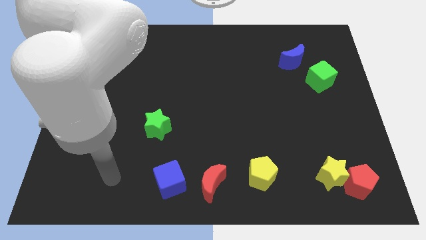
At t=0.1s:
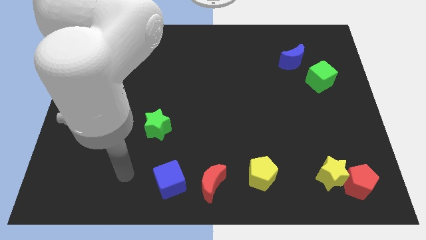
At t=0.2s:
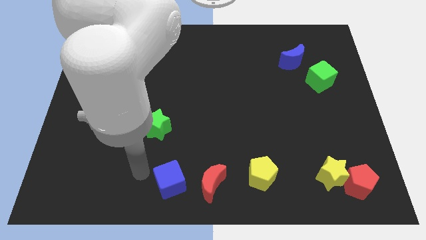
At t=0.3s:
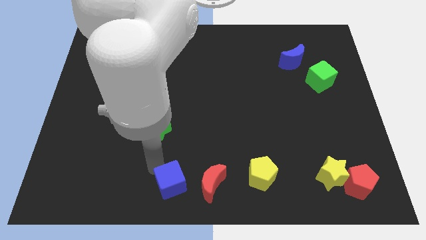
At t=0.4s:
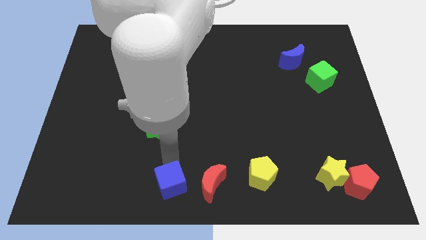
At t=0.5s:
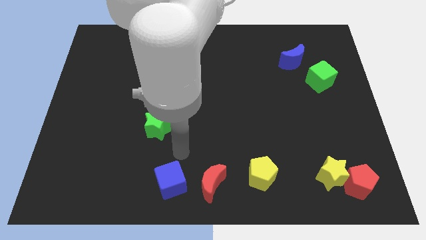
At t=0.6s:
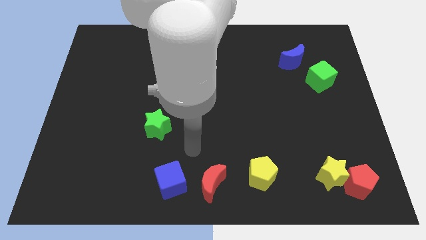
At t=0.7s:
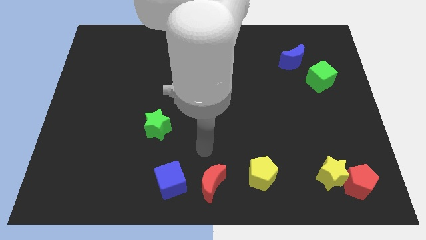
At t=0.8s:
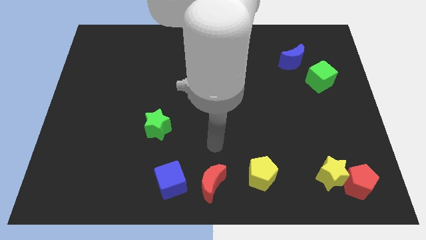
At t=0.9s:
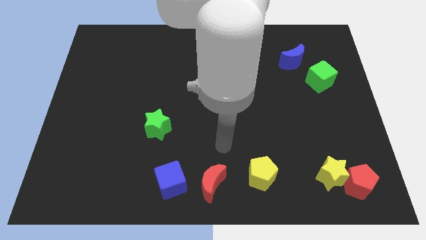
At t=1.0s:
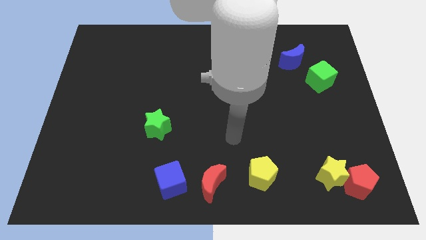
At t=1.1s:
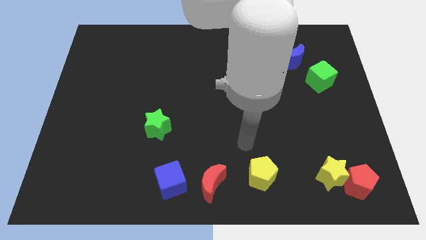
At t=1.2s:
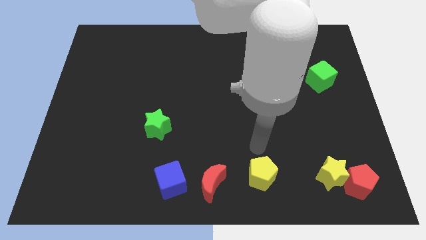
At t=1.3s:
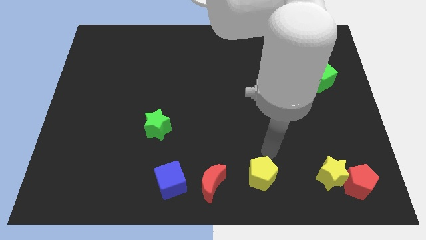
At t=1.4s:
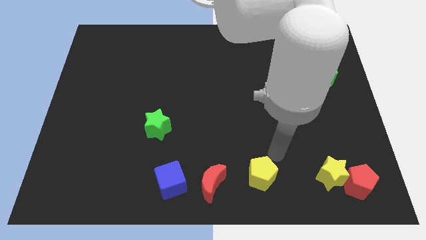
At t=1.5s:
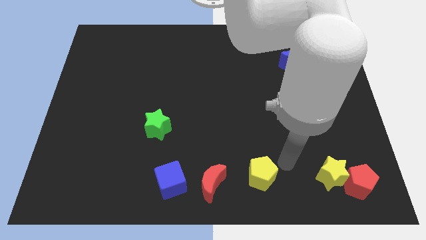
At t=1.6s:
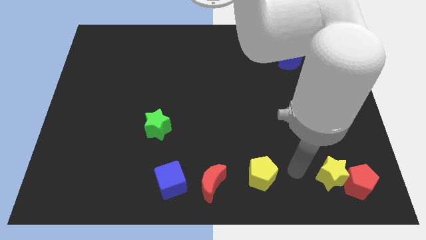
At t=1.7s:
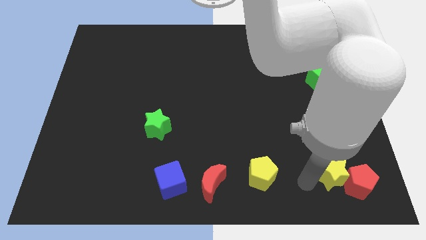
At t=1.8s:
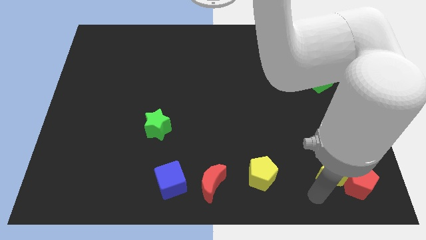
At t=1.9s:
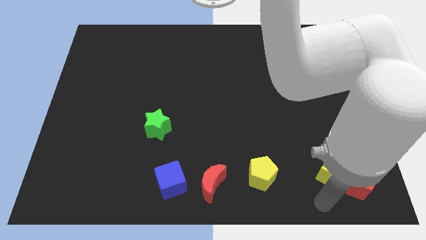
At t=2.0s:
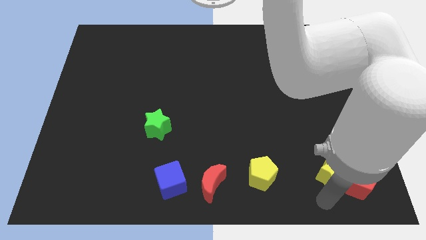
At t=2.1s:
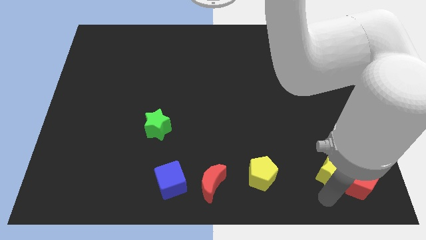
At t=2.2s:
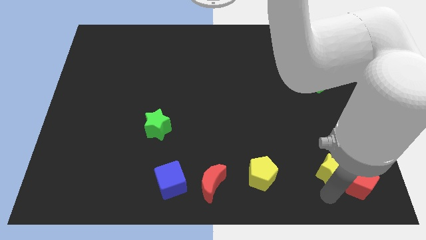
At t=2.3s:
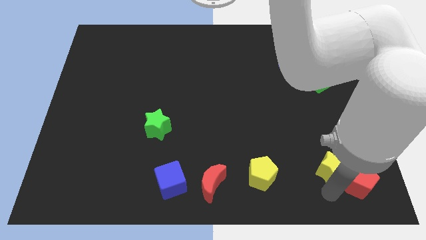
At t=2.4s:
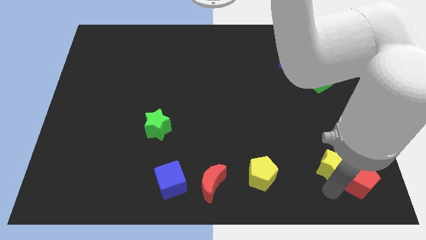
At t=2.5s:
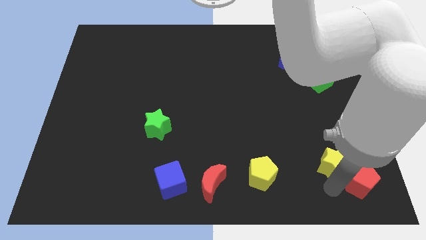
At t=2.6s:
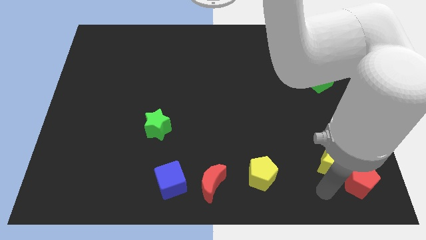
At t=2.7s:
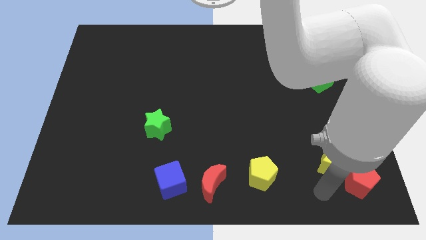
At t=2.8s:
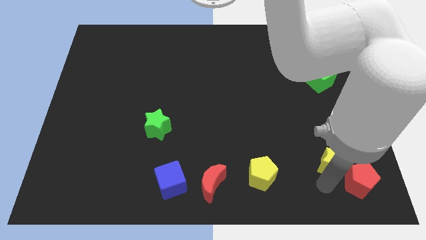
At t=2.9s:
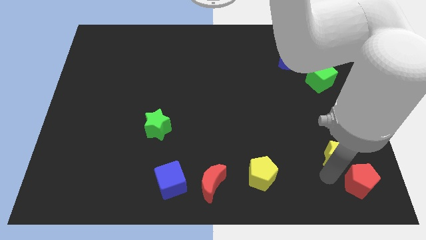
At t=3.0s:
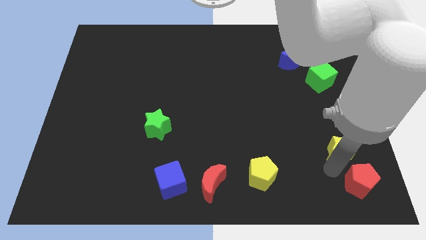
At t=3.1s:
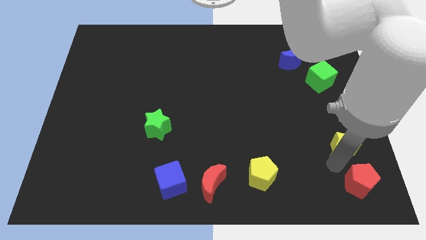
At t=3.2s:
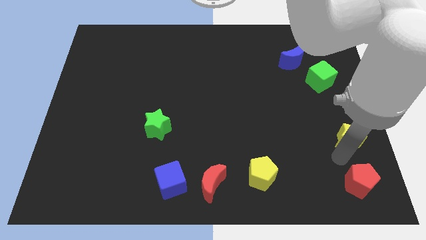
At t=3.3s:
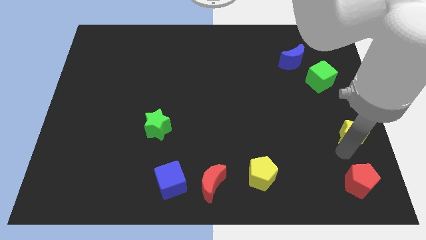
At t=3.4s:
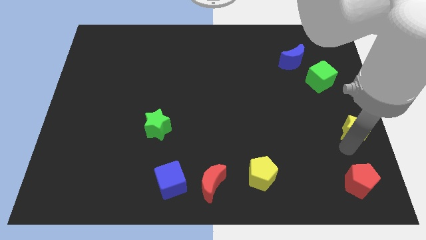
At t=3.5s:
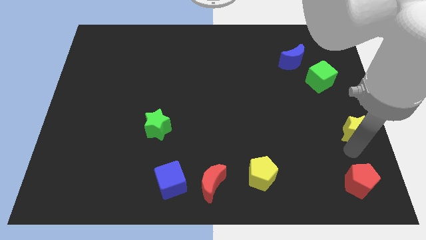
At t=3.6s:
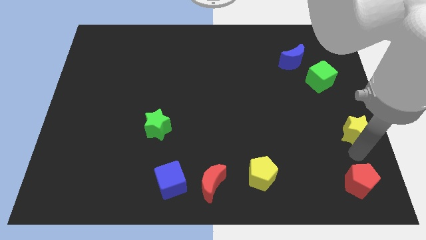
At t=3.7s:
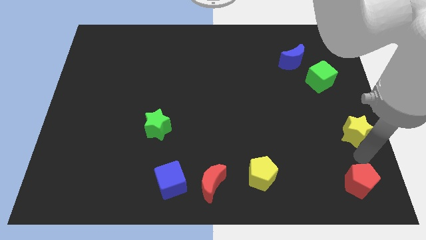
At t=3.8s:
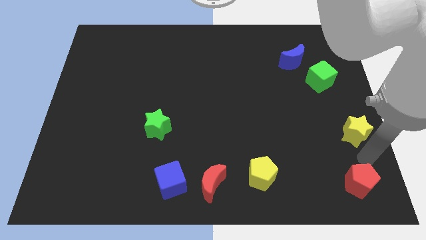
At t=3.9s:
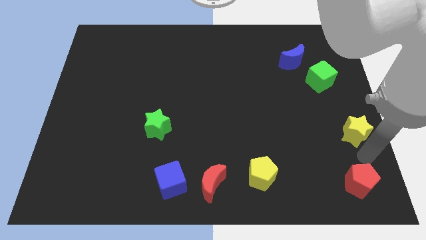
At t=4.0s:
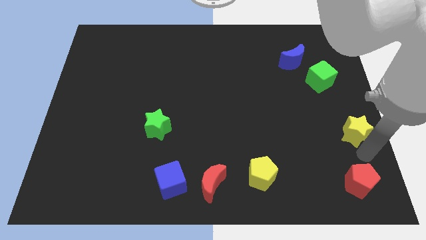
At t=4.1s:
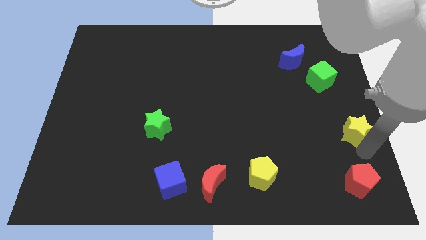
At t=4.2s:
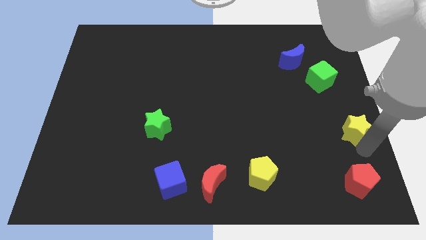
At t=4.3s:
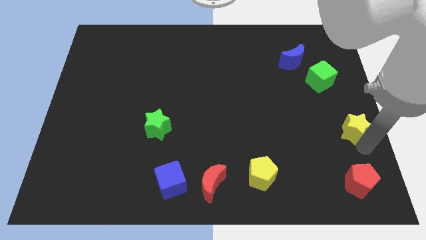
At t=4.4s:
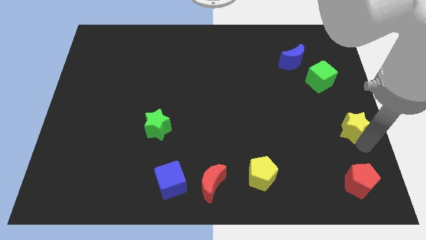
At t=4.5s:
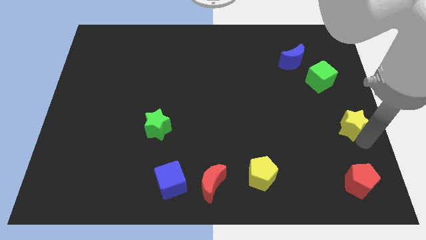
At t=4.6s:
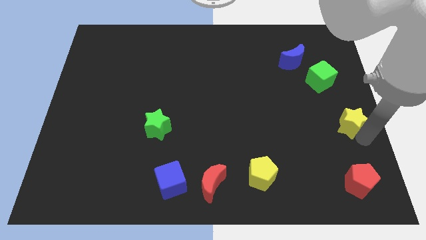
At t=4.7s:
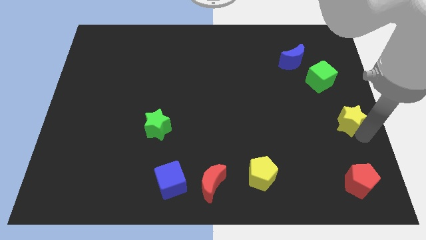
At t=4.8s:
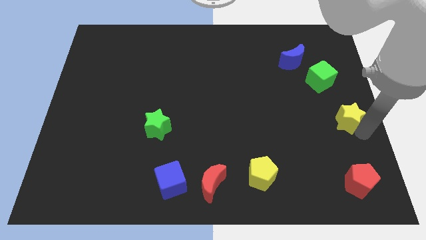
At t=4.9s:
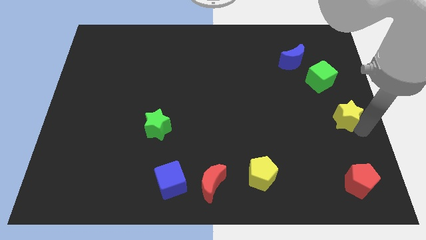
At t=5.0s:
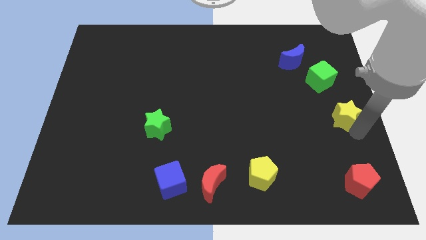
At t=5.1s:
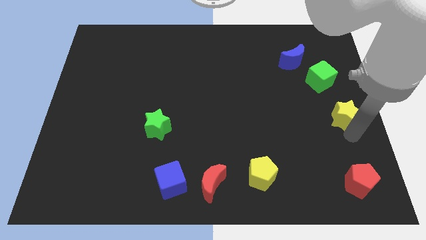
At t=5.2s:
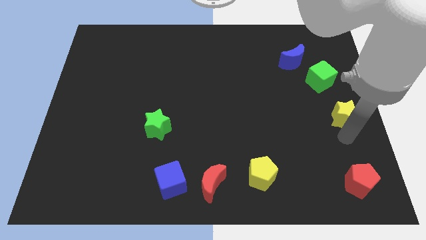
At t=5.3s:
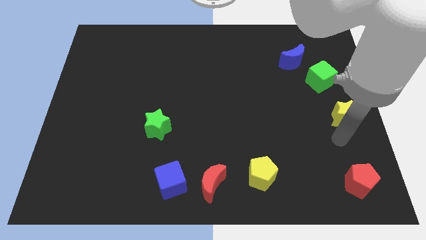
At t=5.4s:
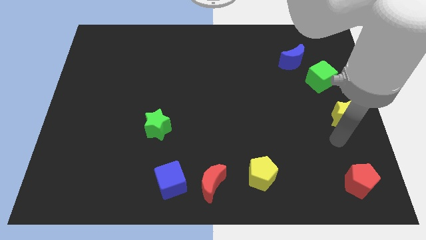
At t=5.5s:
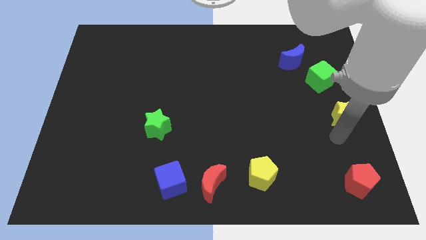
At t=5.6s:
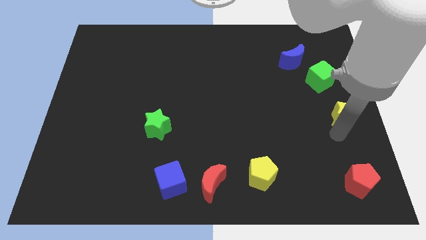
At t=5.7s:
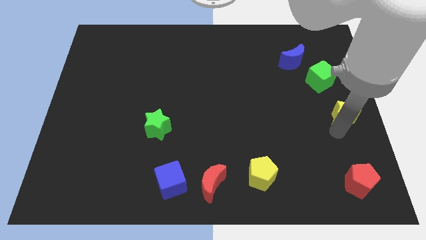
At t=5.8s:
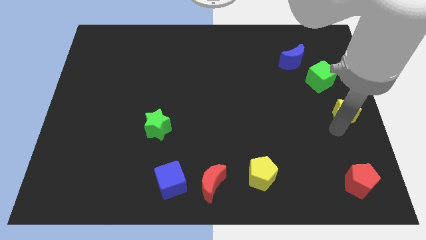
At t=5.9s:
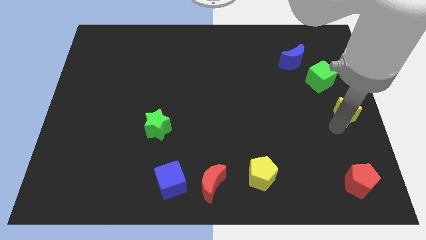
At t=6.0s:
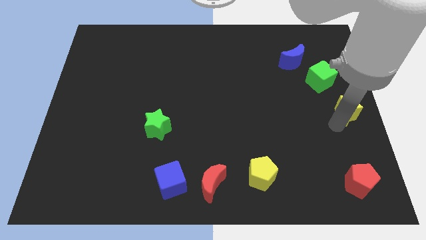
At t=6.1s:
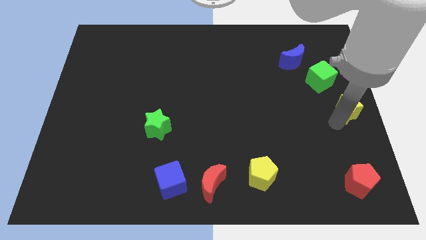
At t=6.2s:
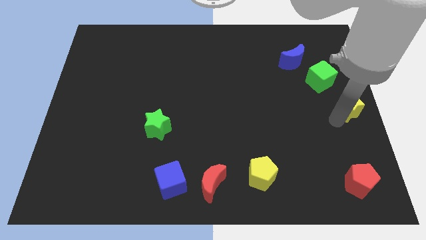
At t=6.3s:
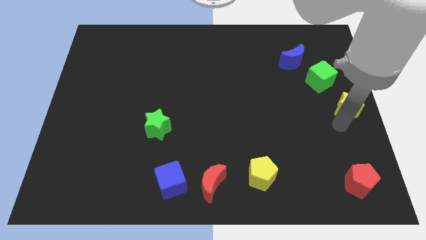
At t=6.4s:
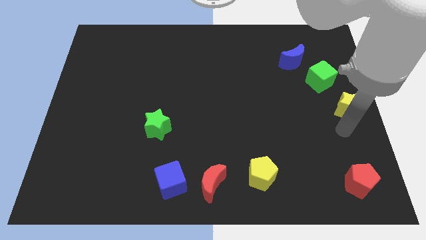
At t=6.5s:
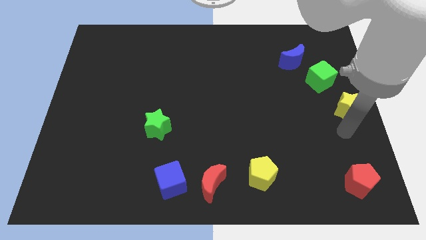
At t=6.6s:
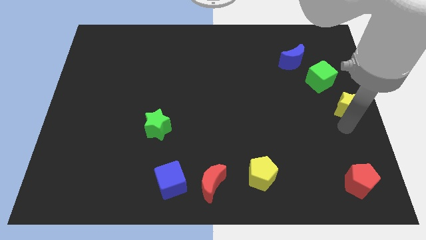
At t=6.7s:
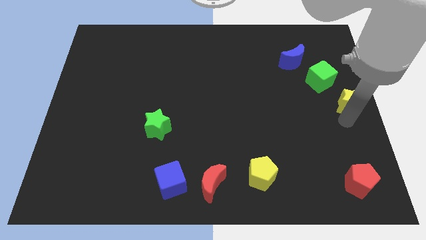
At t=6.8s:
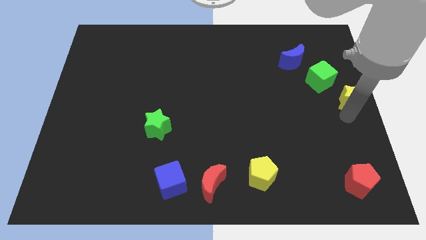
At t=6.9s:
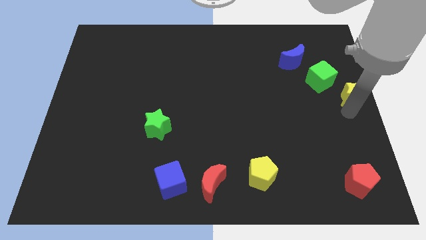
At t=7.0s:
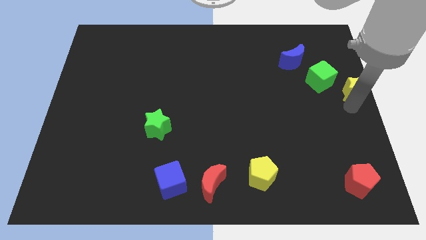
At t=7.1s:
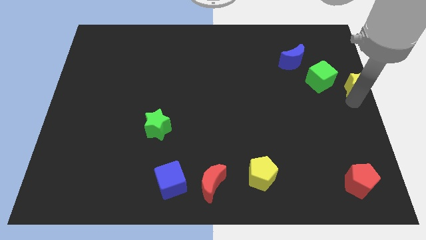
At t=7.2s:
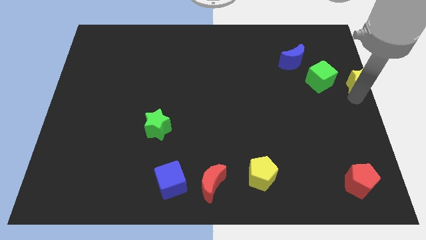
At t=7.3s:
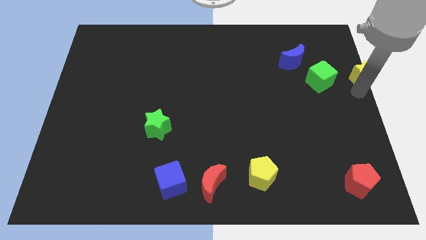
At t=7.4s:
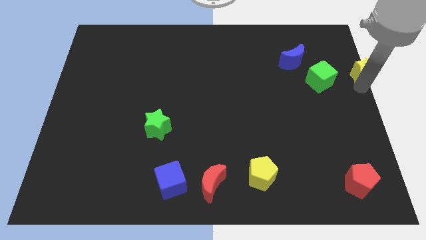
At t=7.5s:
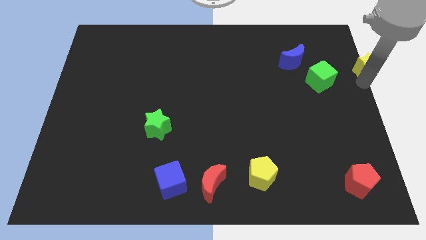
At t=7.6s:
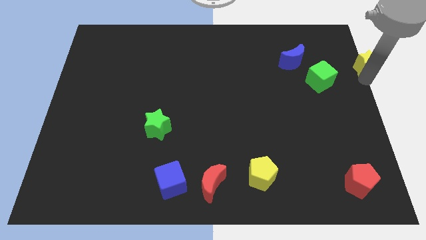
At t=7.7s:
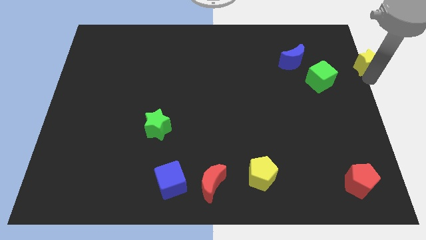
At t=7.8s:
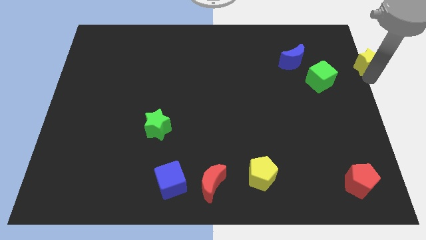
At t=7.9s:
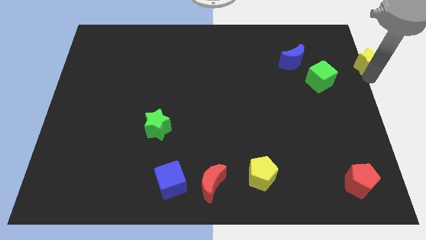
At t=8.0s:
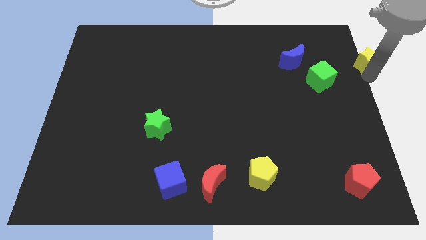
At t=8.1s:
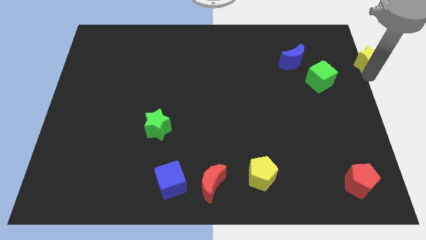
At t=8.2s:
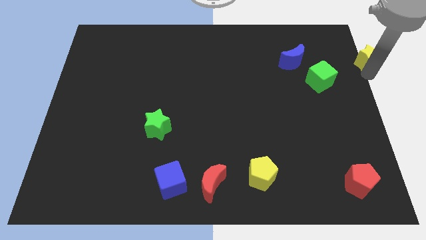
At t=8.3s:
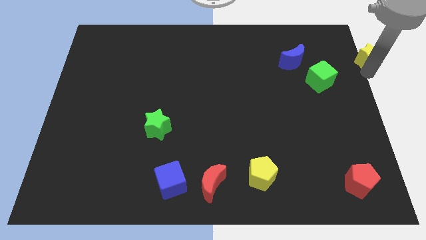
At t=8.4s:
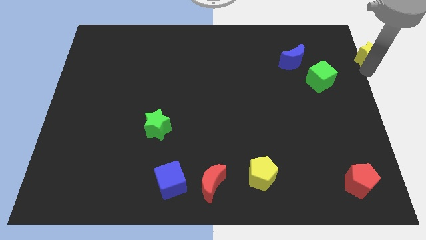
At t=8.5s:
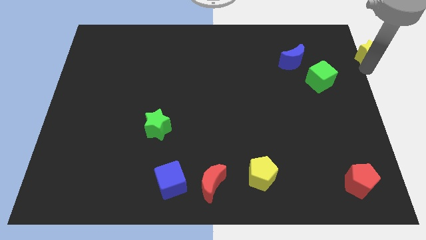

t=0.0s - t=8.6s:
slide the yellow star to the top right
